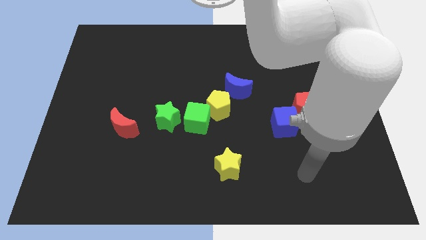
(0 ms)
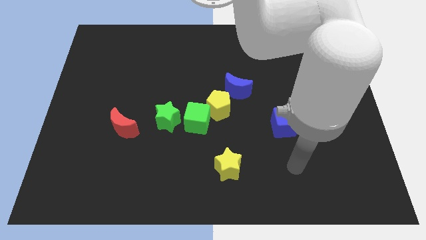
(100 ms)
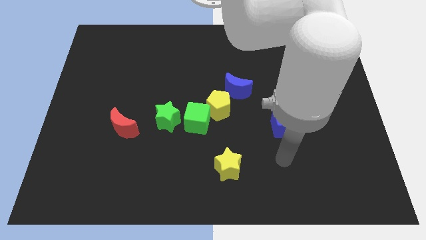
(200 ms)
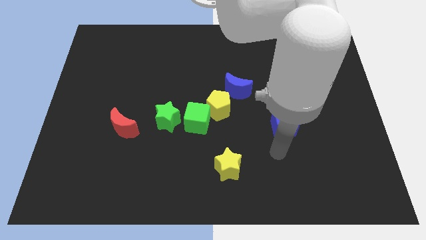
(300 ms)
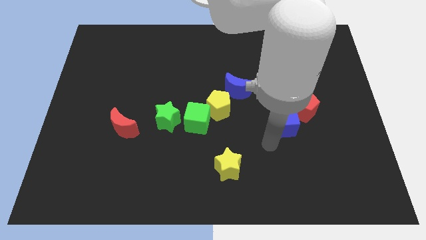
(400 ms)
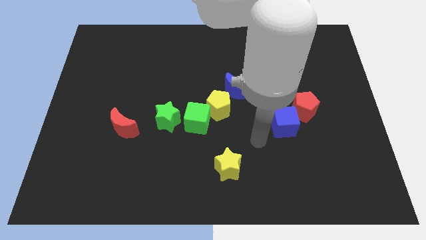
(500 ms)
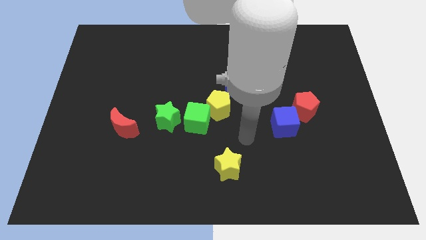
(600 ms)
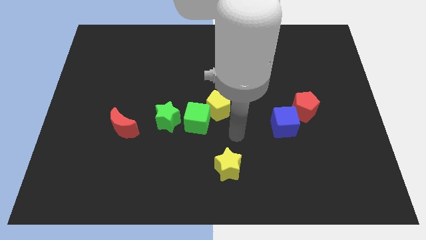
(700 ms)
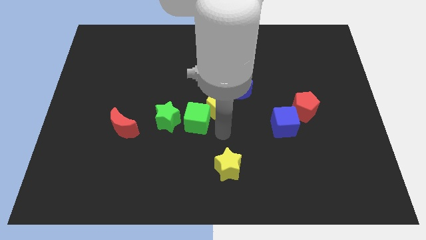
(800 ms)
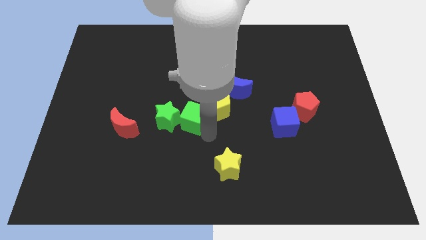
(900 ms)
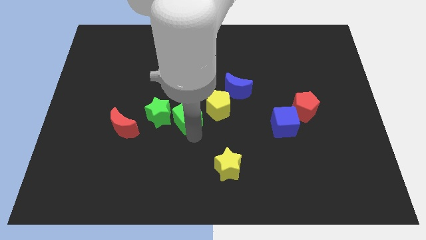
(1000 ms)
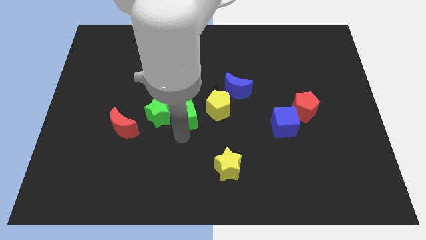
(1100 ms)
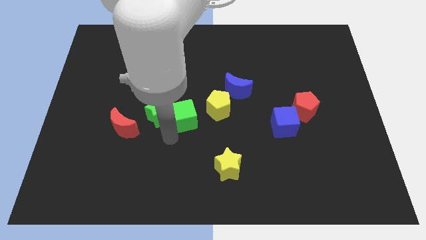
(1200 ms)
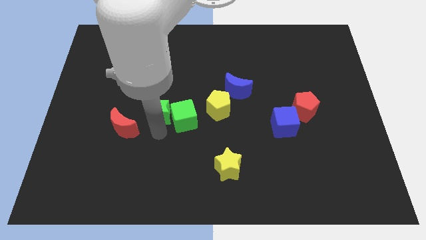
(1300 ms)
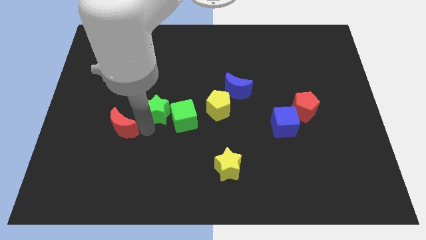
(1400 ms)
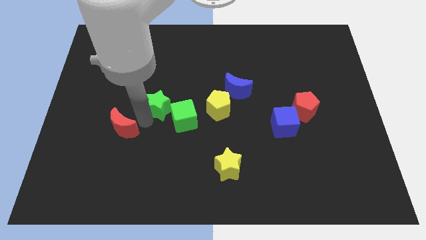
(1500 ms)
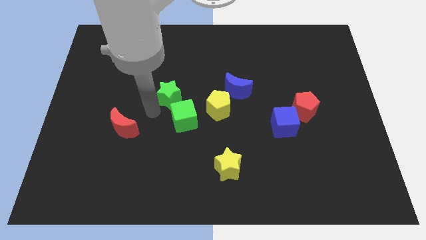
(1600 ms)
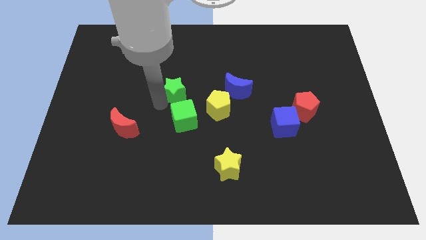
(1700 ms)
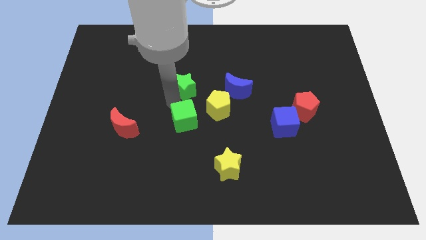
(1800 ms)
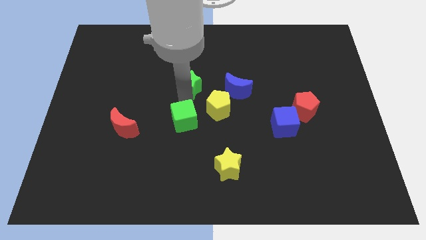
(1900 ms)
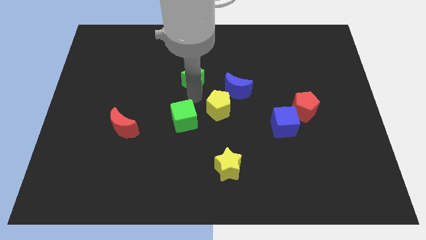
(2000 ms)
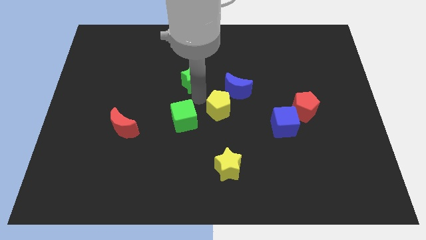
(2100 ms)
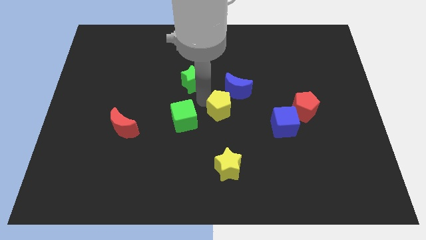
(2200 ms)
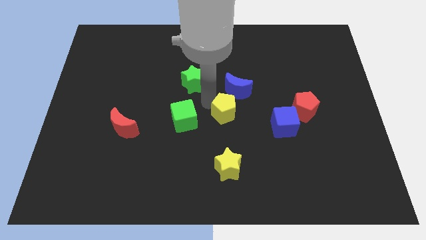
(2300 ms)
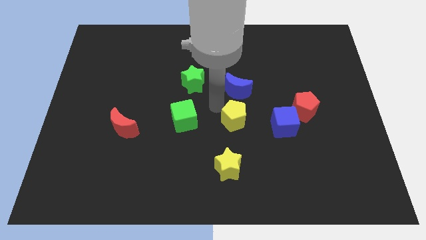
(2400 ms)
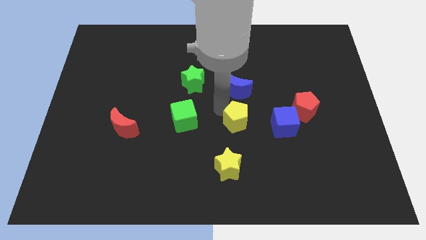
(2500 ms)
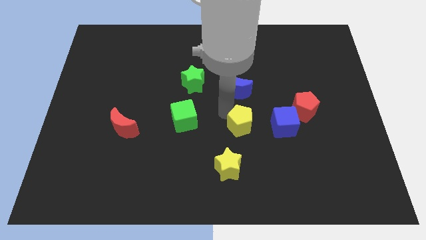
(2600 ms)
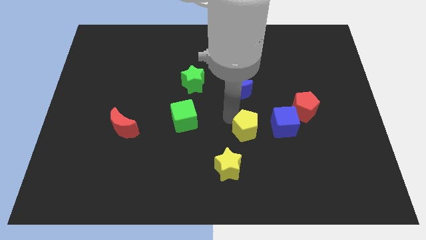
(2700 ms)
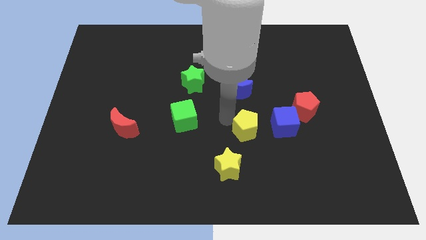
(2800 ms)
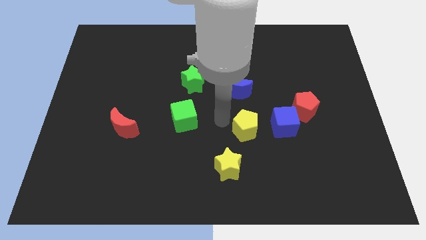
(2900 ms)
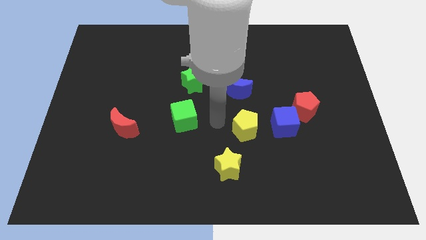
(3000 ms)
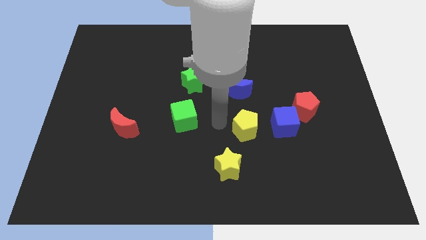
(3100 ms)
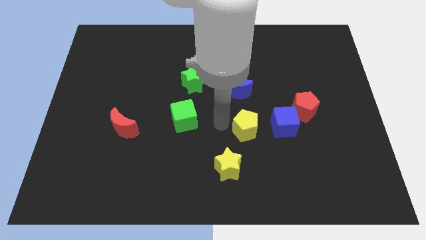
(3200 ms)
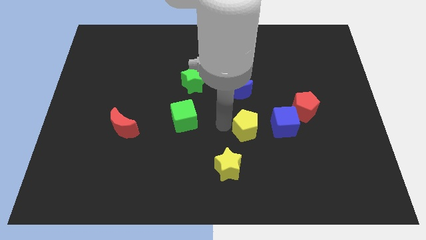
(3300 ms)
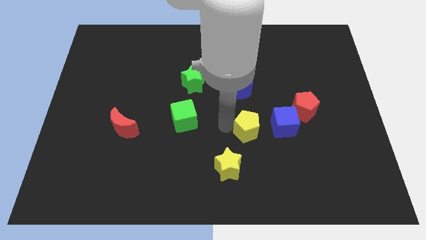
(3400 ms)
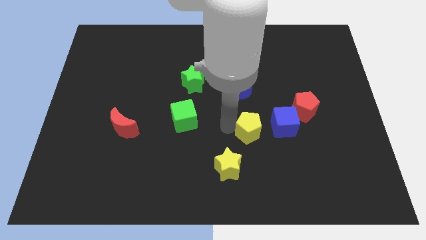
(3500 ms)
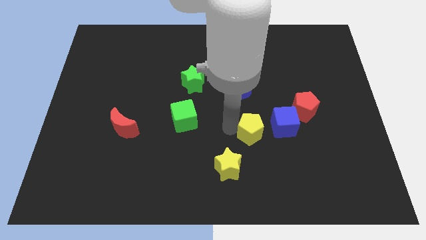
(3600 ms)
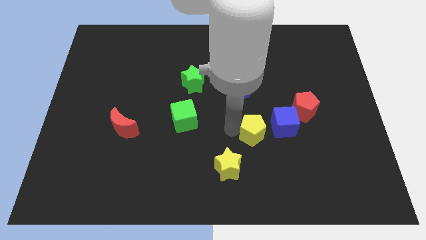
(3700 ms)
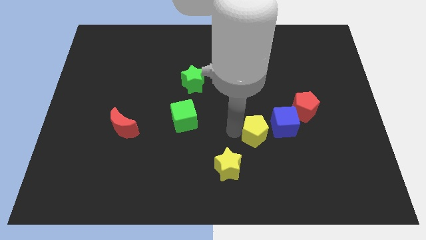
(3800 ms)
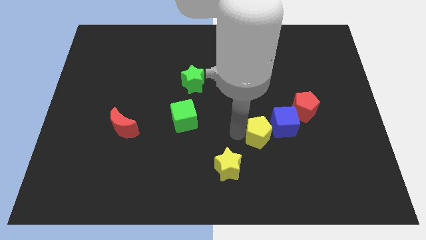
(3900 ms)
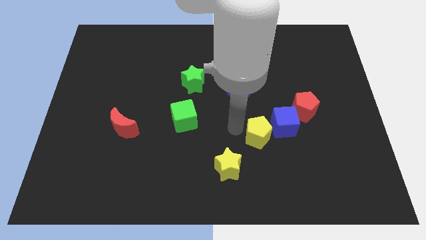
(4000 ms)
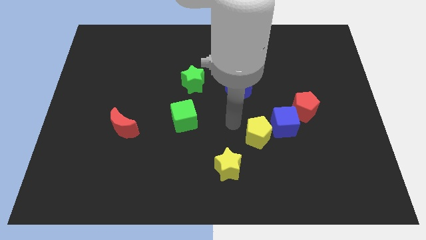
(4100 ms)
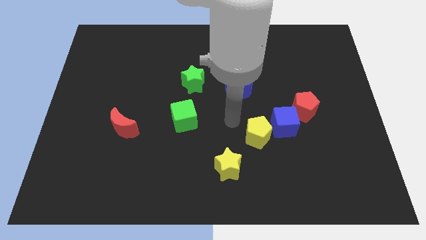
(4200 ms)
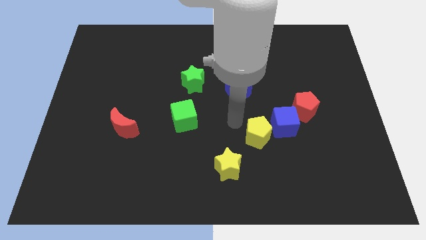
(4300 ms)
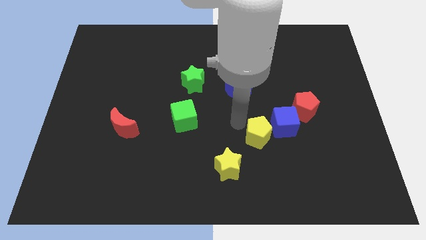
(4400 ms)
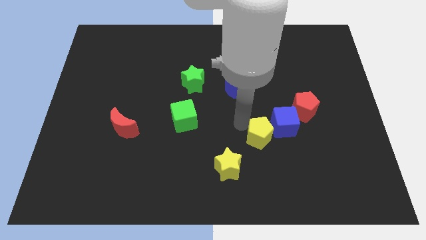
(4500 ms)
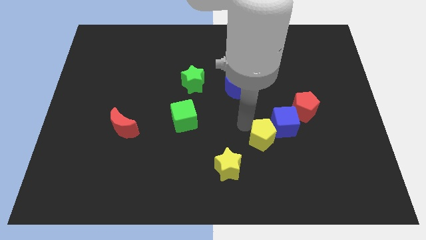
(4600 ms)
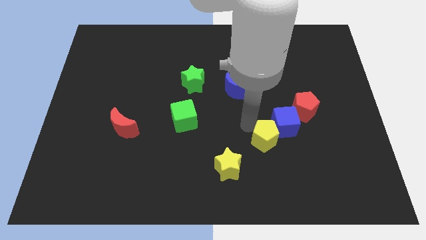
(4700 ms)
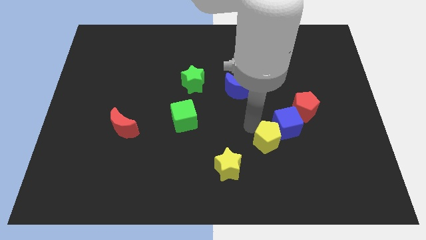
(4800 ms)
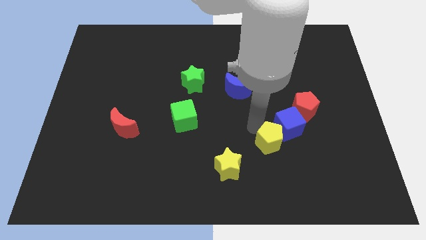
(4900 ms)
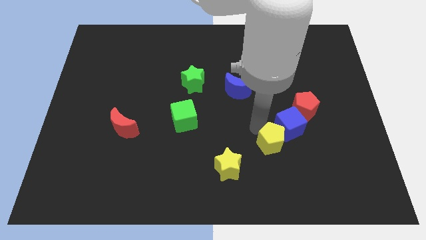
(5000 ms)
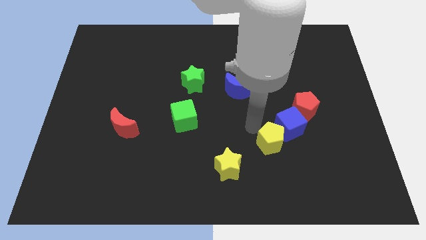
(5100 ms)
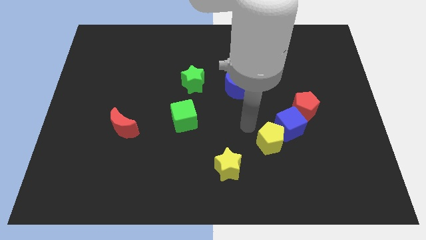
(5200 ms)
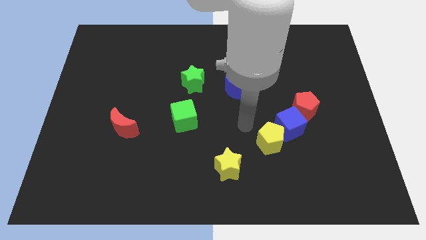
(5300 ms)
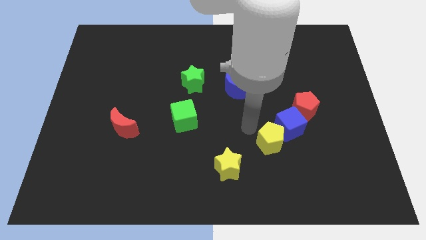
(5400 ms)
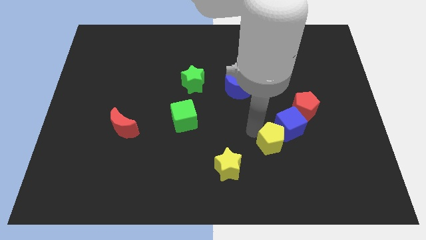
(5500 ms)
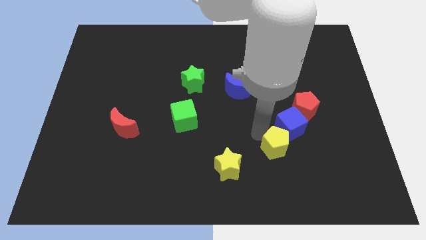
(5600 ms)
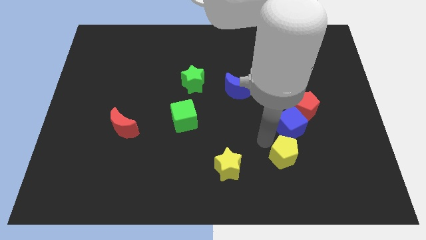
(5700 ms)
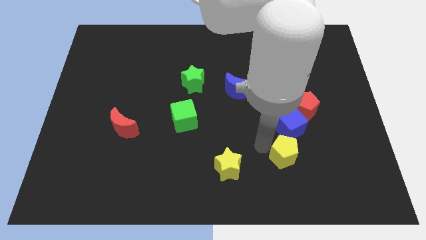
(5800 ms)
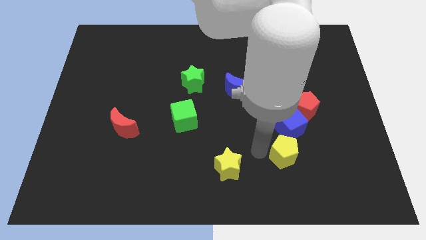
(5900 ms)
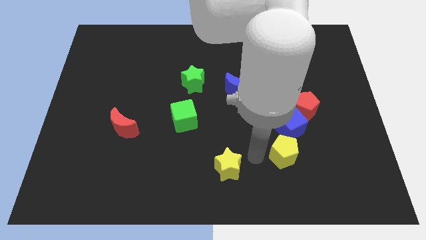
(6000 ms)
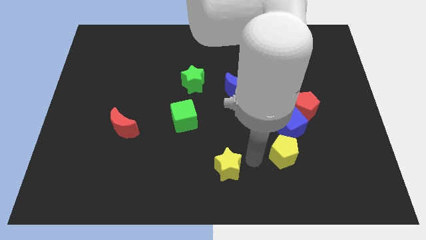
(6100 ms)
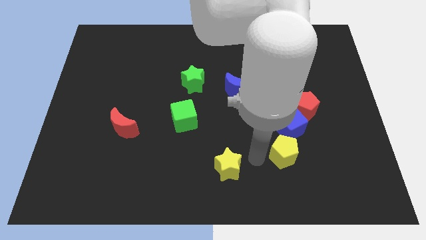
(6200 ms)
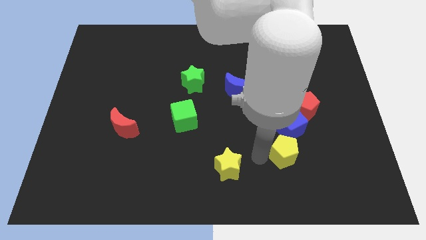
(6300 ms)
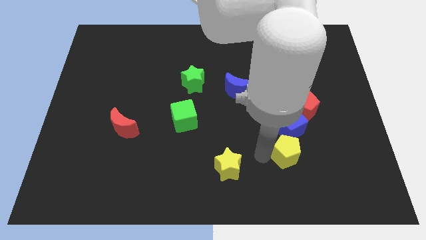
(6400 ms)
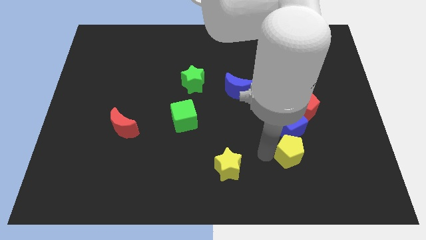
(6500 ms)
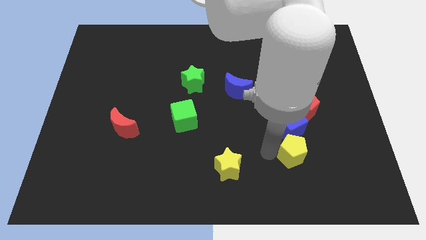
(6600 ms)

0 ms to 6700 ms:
push the yellow pentagon to the bottom of the red pentagon
